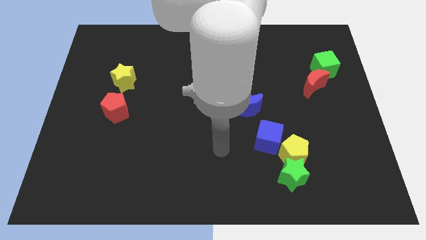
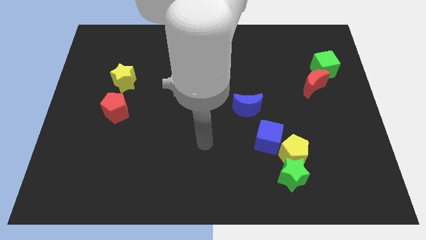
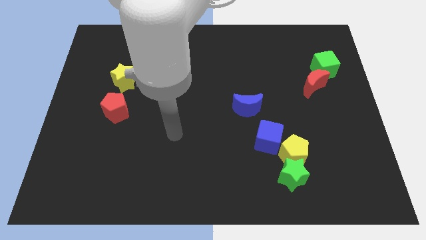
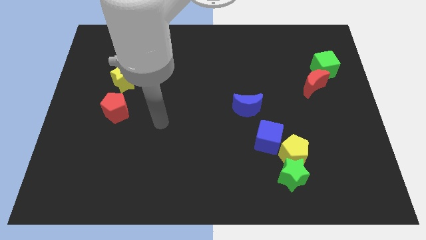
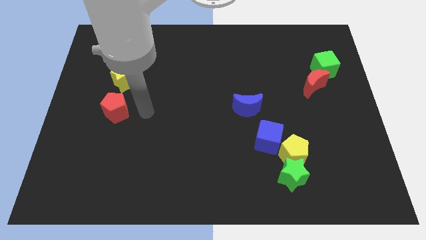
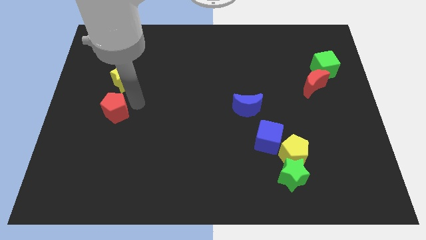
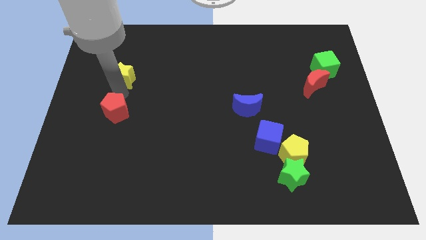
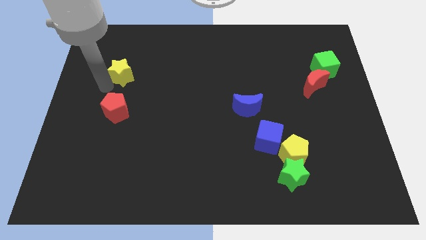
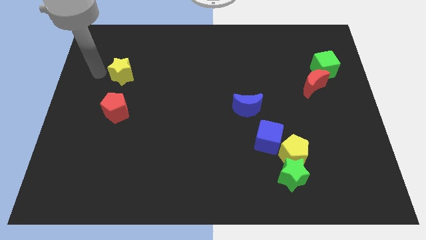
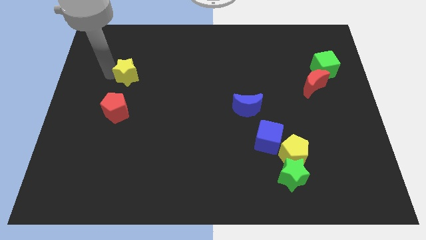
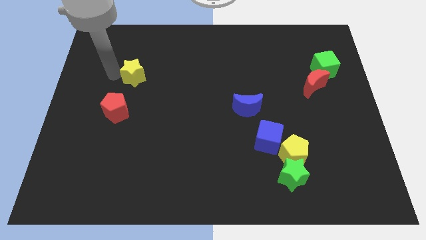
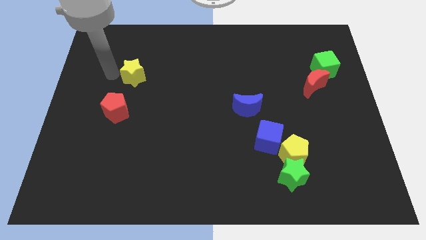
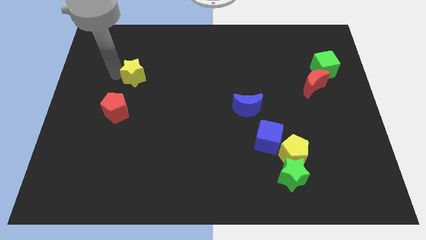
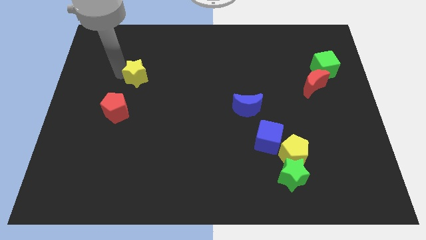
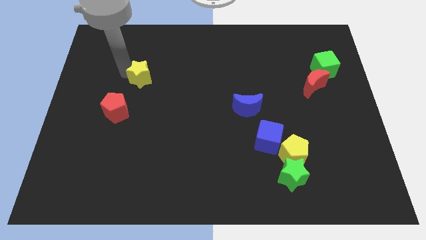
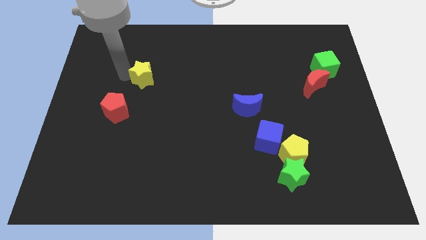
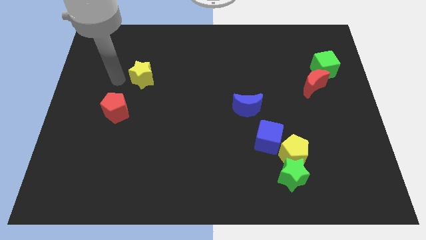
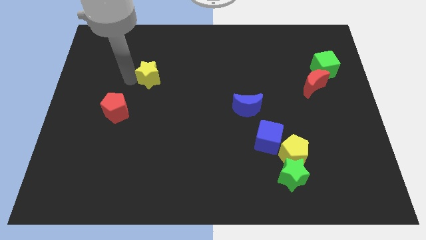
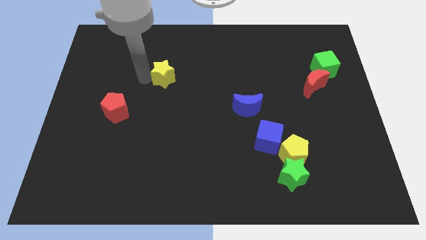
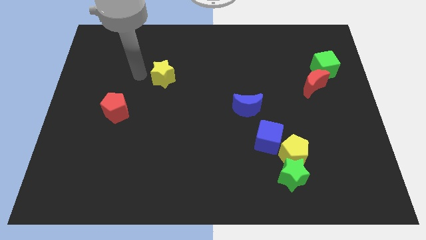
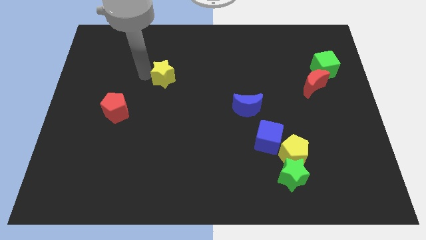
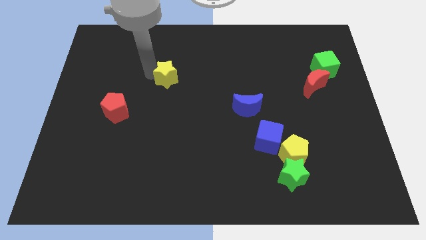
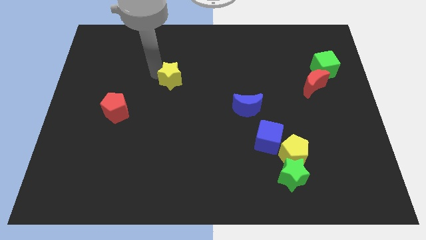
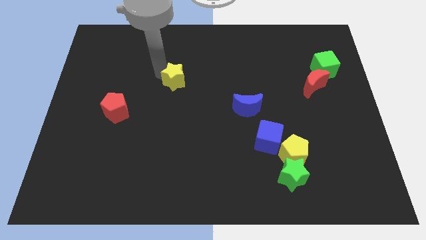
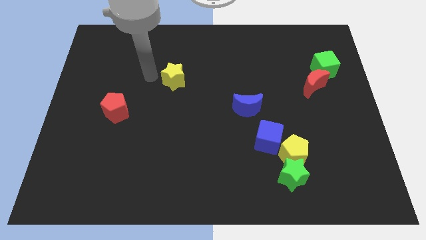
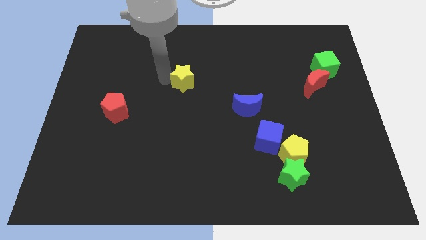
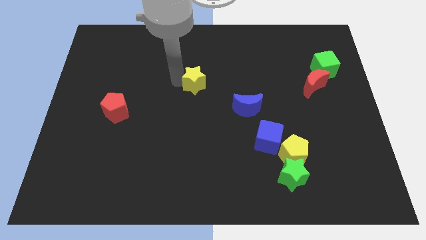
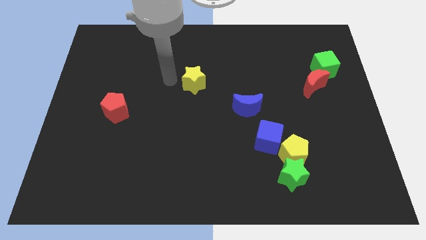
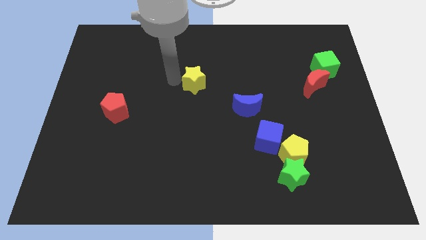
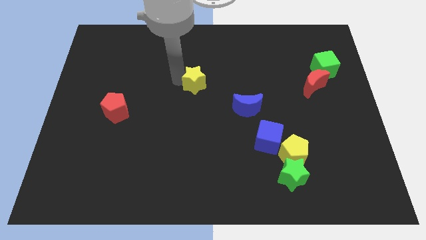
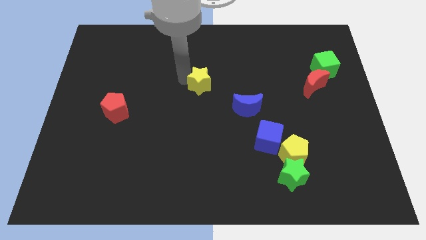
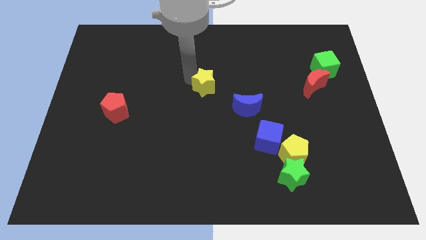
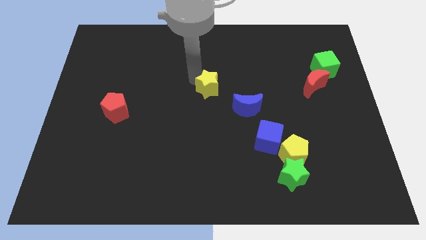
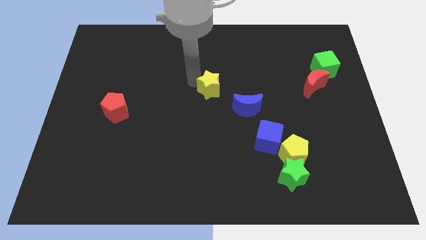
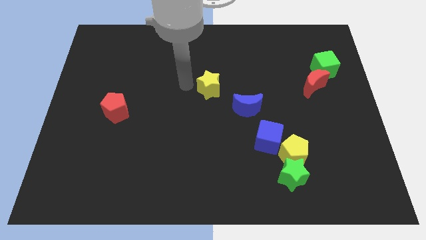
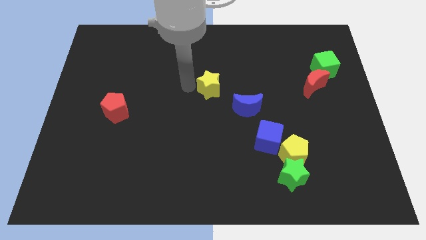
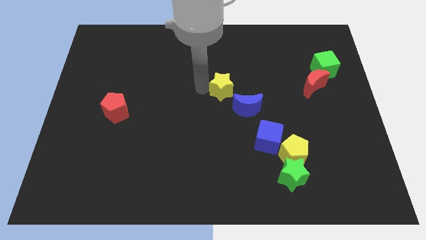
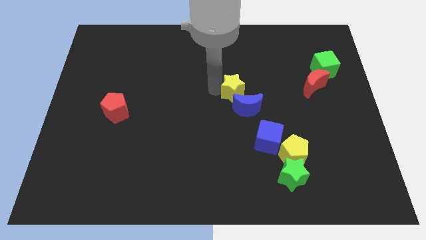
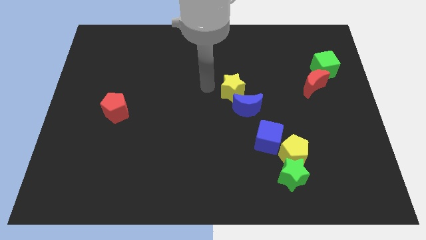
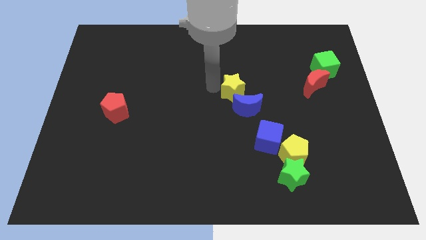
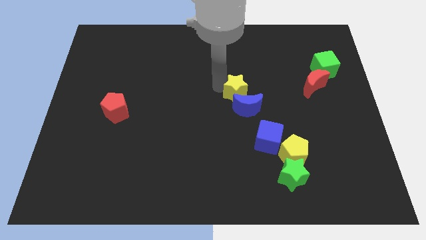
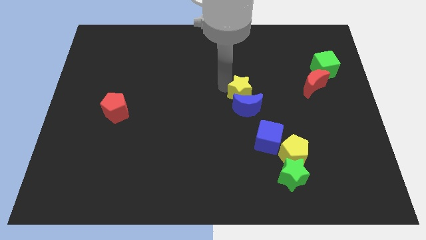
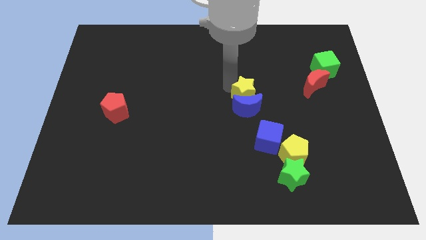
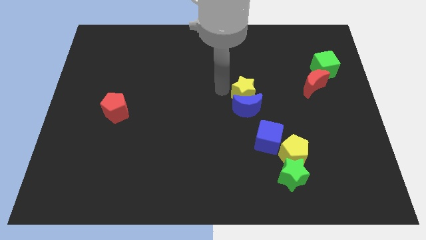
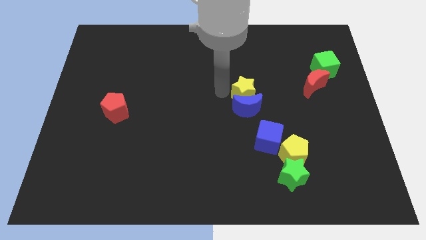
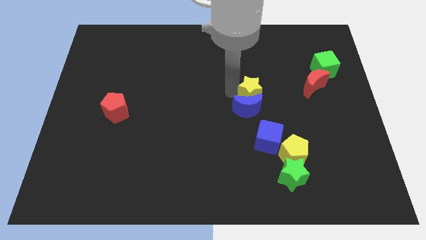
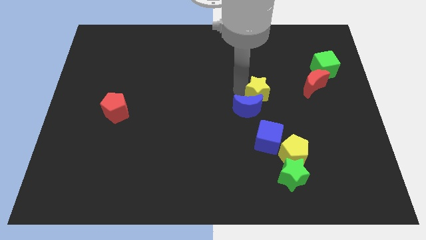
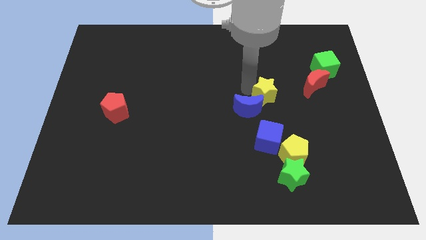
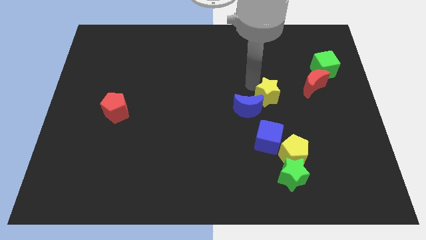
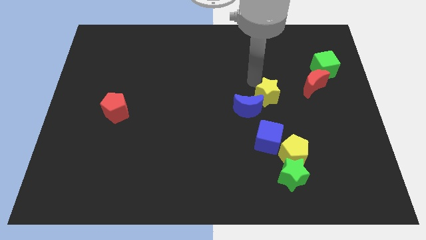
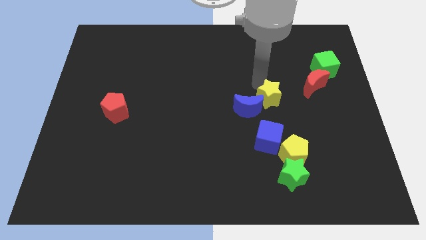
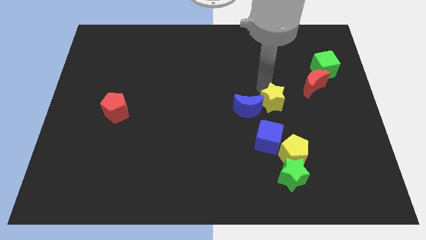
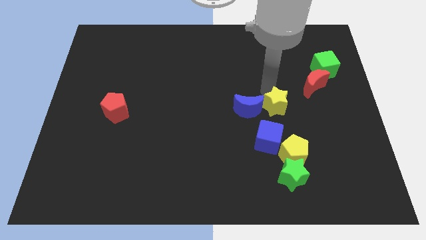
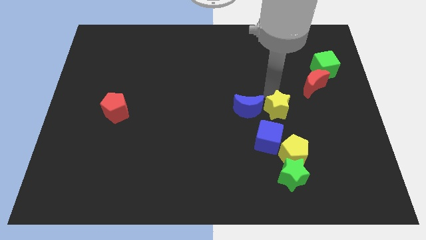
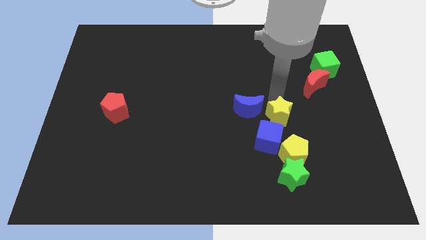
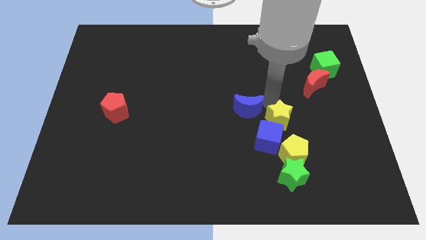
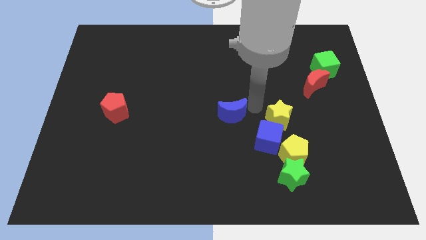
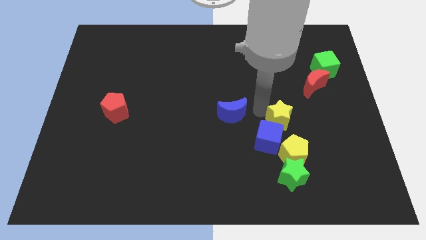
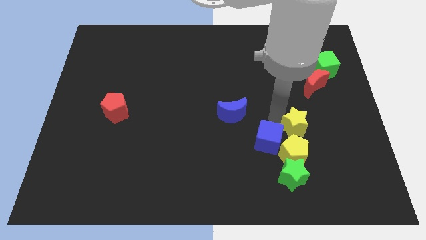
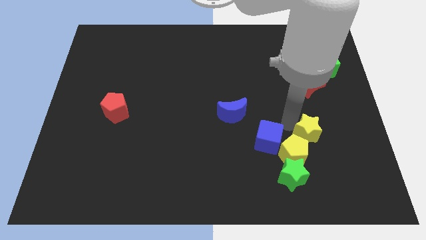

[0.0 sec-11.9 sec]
push the yellow star to the top right of the green star

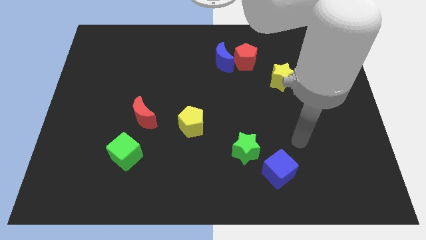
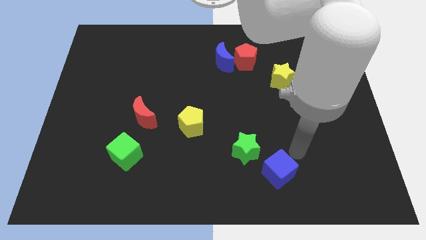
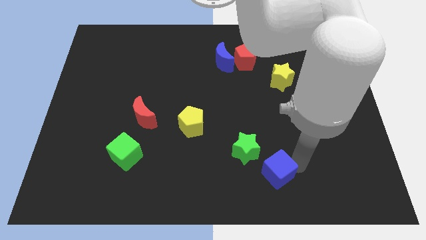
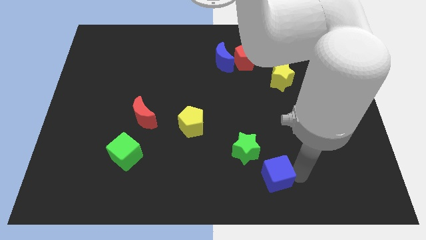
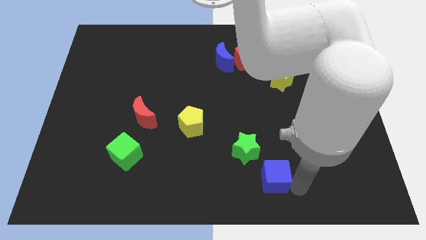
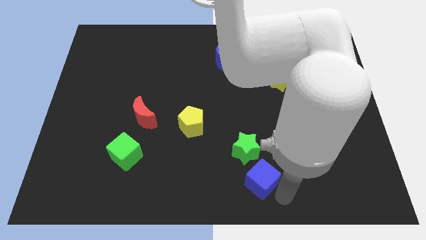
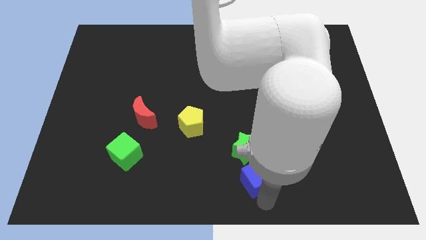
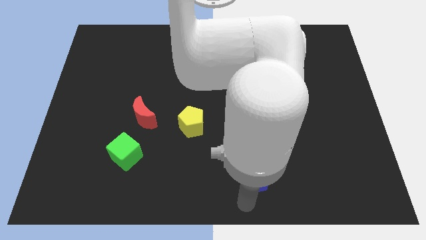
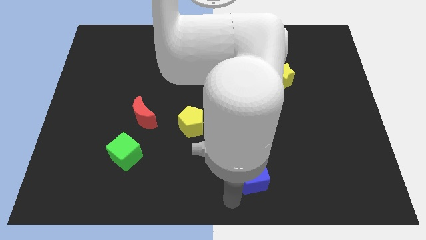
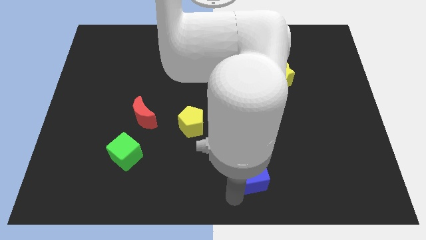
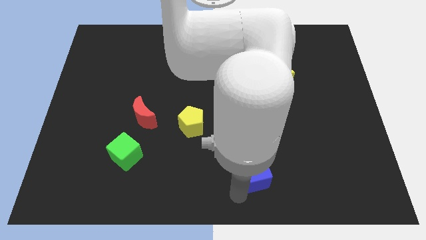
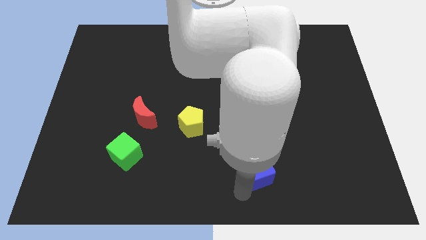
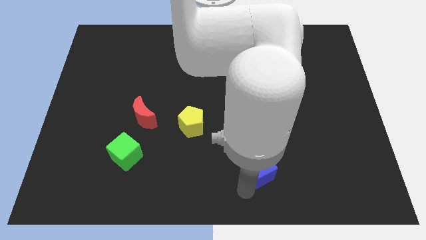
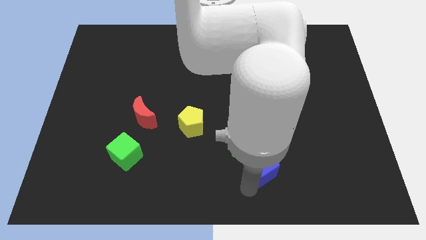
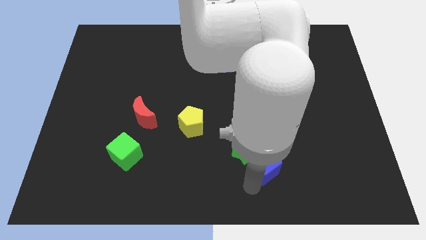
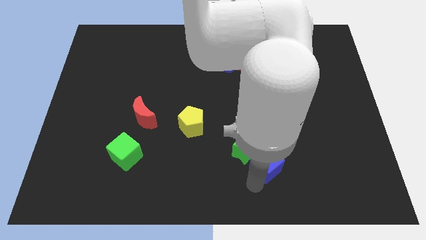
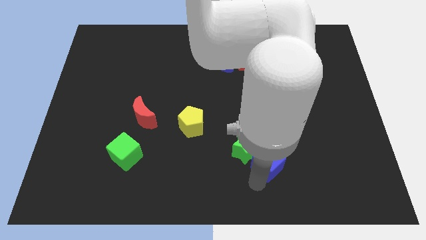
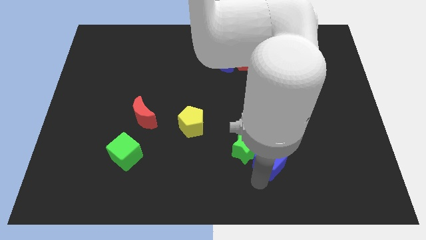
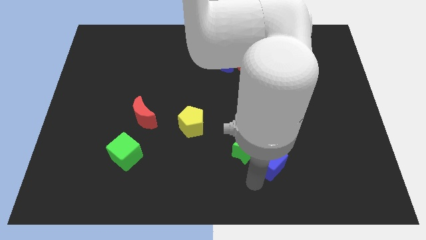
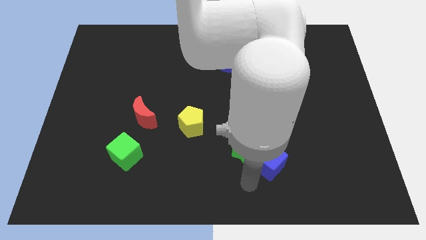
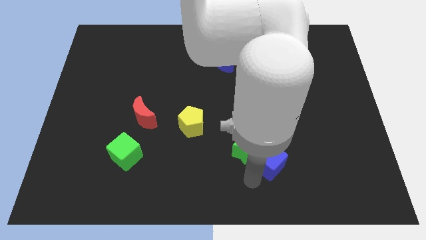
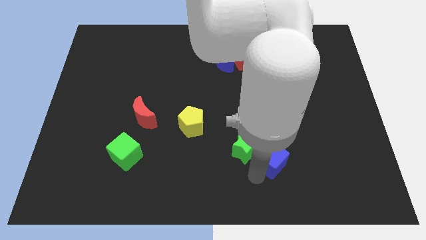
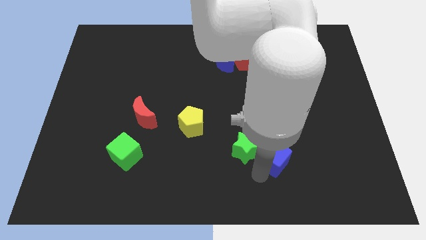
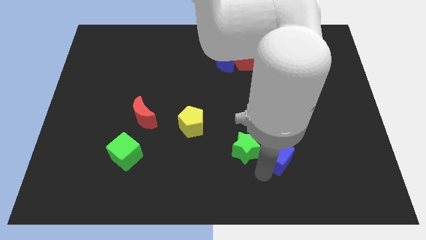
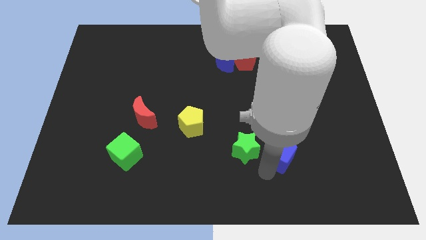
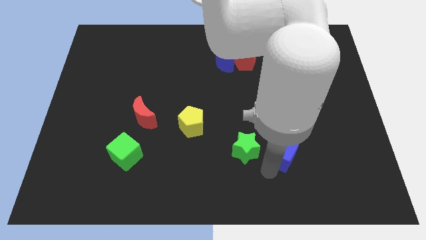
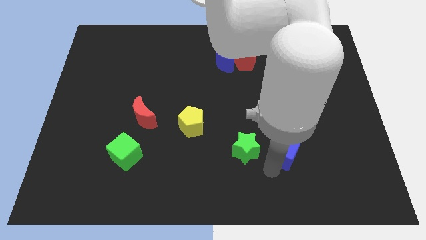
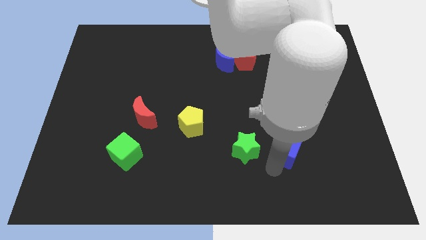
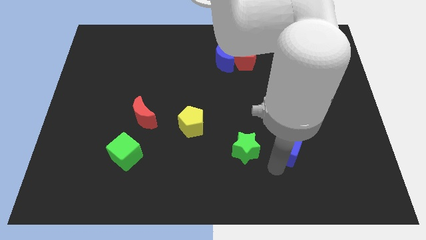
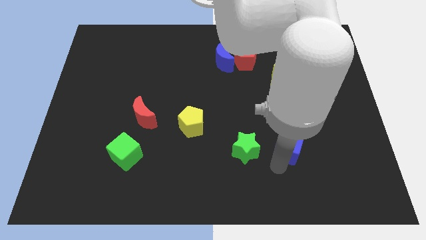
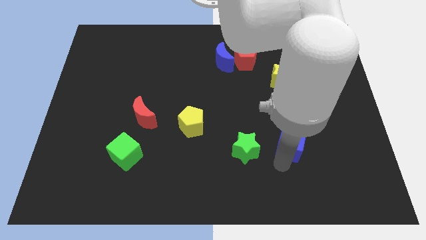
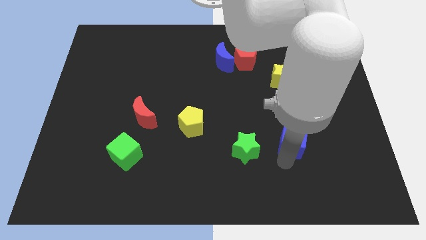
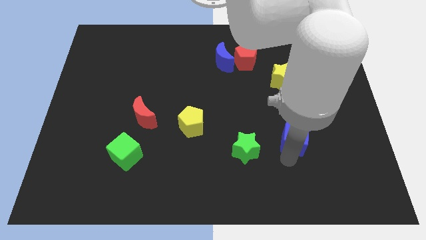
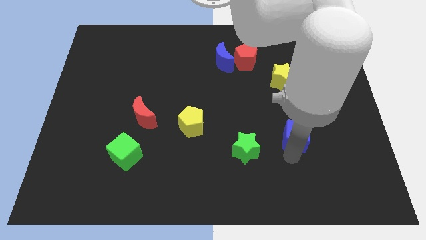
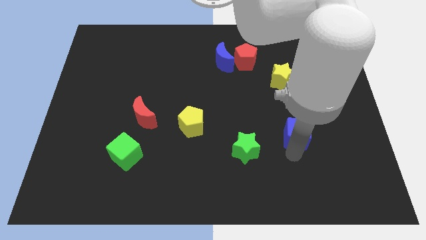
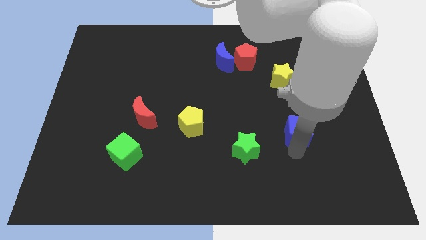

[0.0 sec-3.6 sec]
push the blue cube to the bottom of the yellow star
